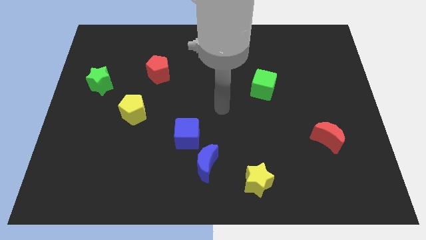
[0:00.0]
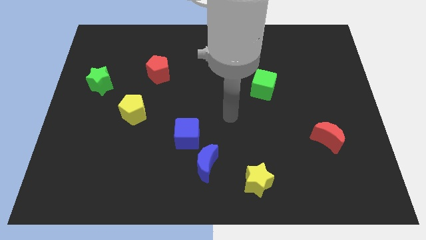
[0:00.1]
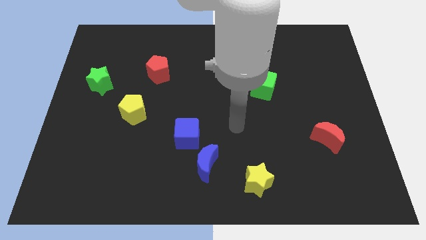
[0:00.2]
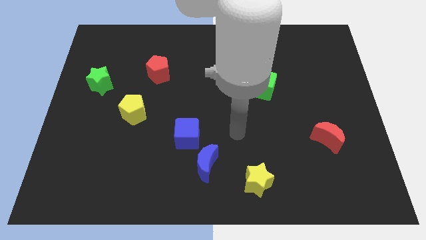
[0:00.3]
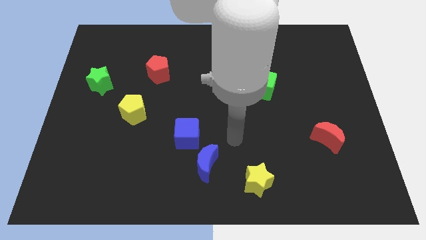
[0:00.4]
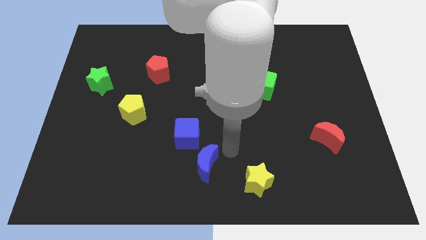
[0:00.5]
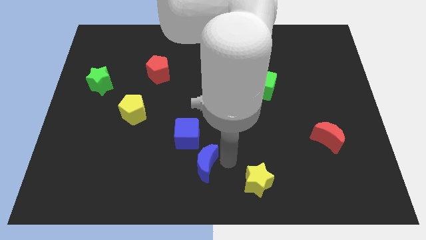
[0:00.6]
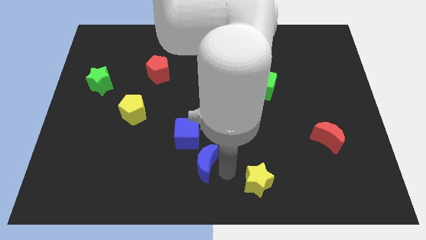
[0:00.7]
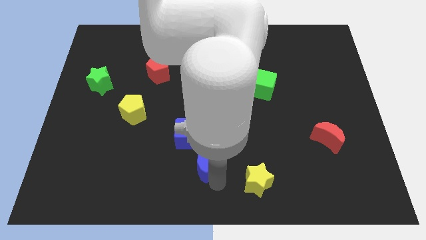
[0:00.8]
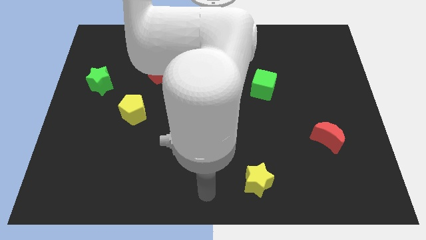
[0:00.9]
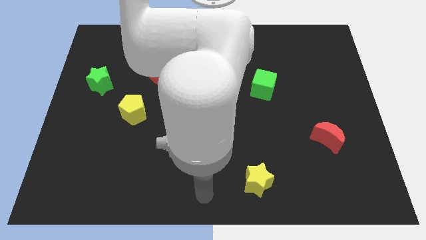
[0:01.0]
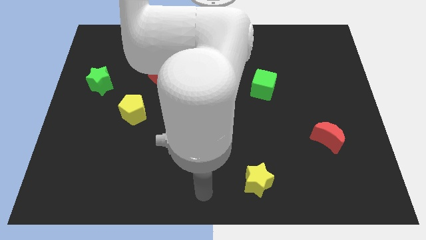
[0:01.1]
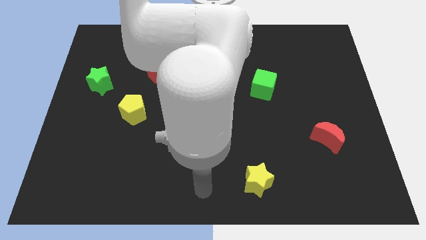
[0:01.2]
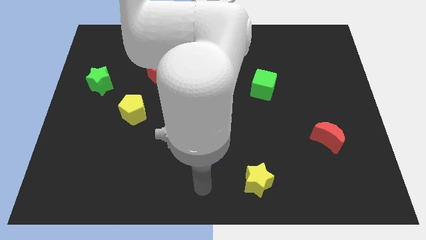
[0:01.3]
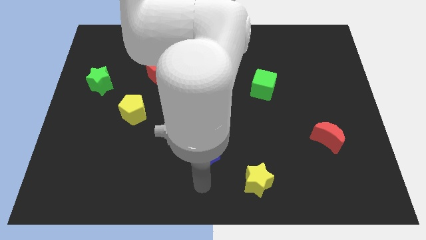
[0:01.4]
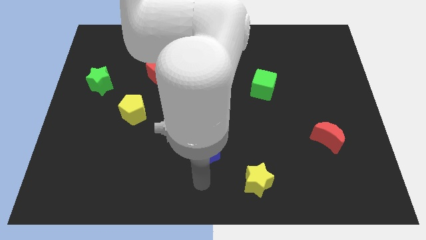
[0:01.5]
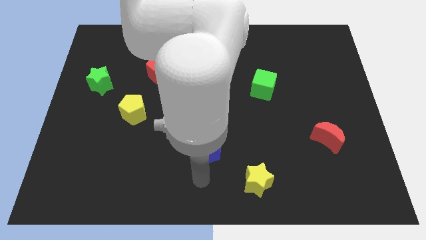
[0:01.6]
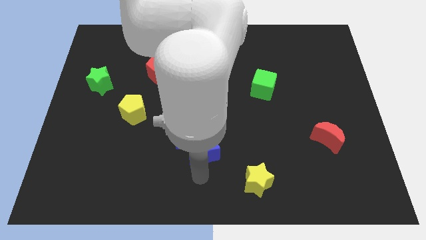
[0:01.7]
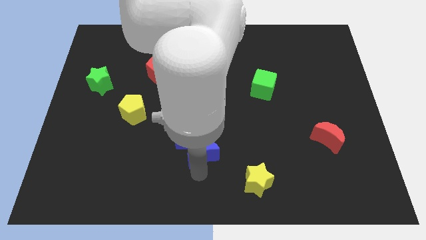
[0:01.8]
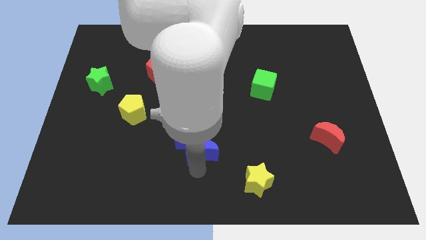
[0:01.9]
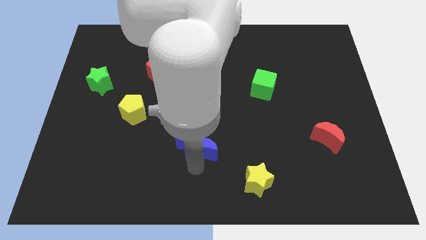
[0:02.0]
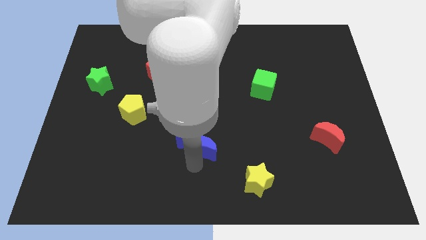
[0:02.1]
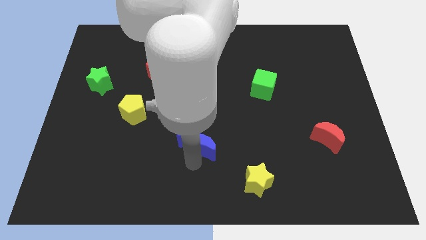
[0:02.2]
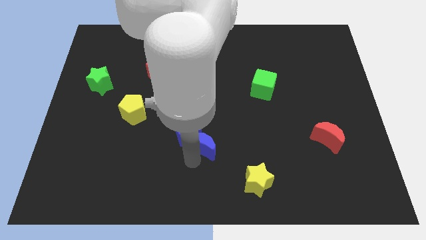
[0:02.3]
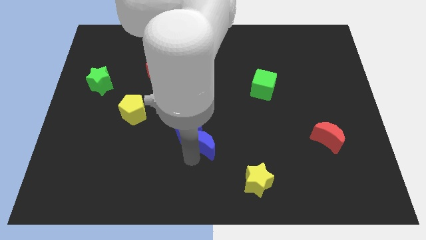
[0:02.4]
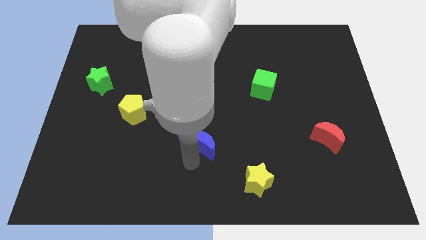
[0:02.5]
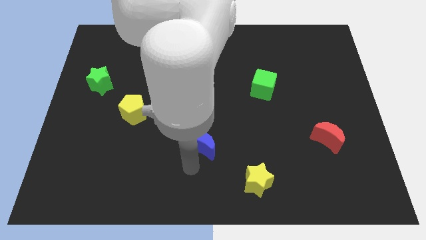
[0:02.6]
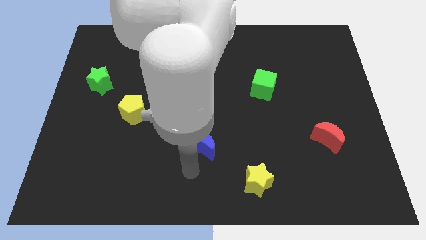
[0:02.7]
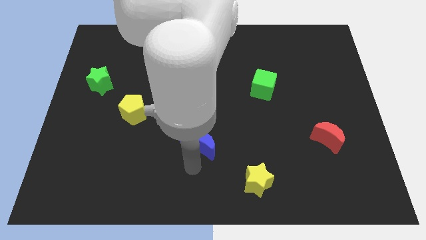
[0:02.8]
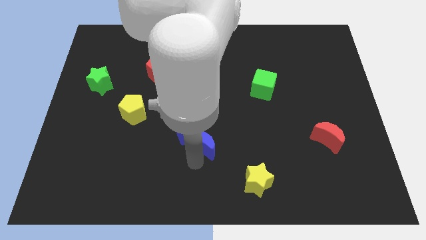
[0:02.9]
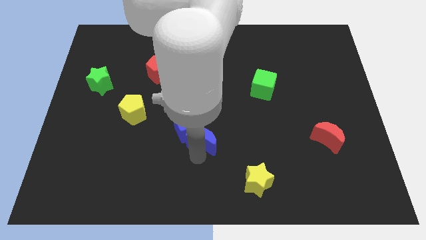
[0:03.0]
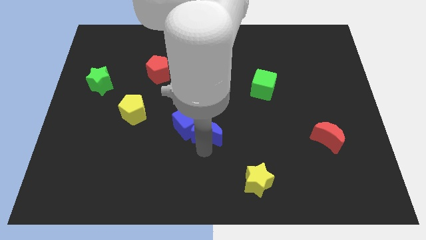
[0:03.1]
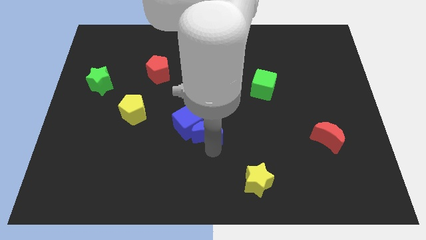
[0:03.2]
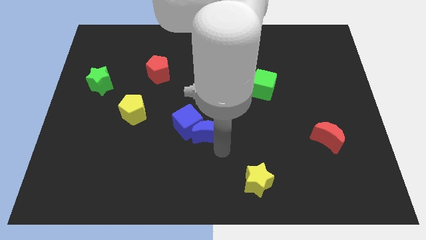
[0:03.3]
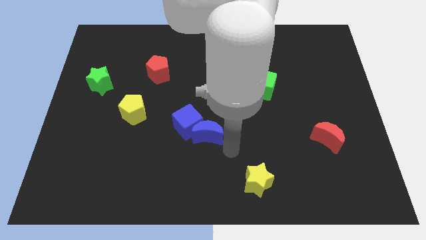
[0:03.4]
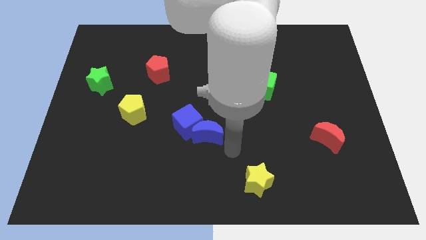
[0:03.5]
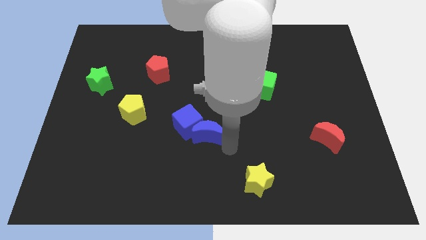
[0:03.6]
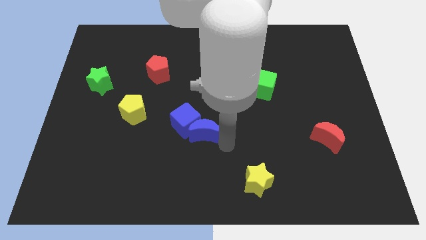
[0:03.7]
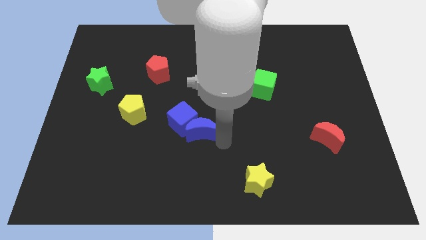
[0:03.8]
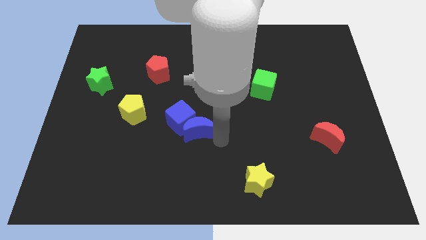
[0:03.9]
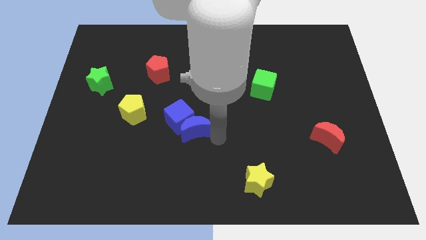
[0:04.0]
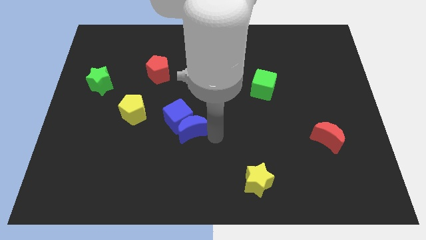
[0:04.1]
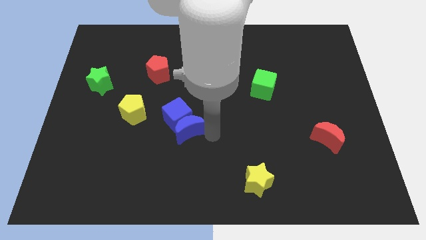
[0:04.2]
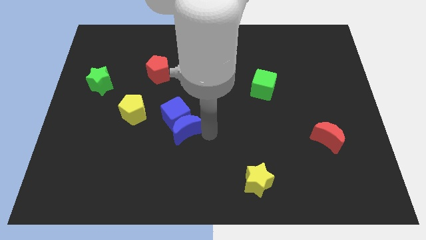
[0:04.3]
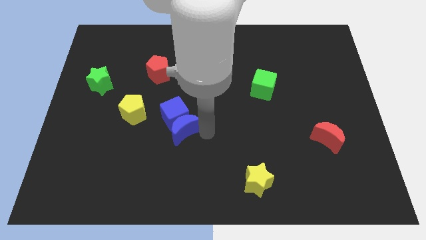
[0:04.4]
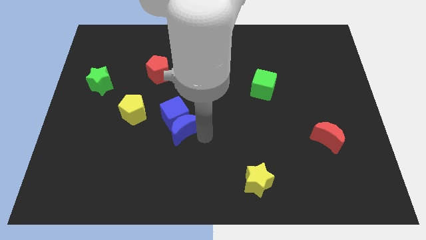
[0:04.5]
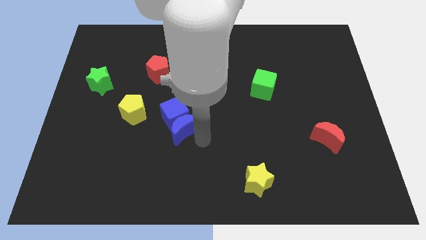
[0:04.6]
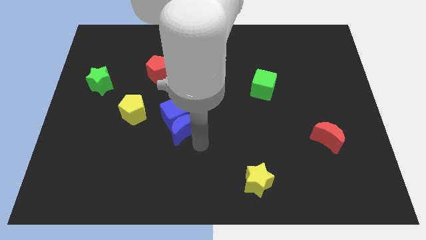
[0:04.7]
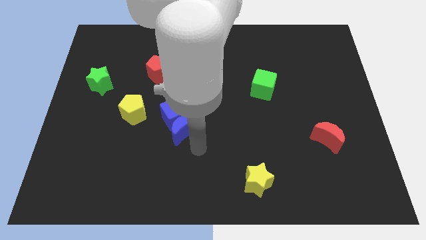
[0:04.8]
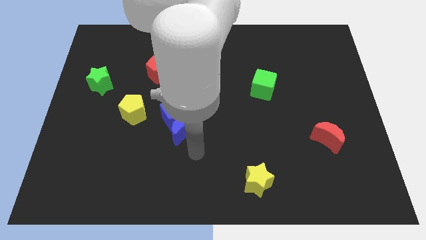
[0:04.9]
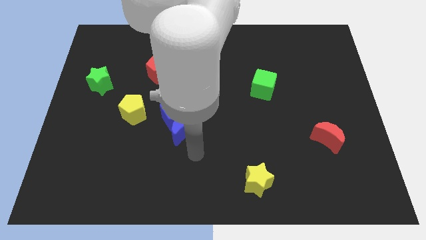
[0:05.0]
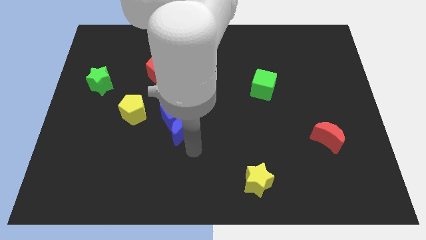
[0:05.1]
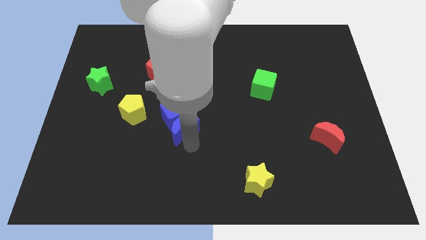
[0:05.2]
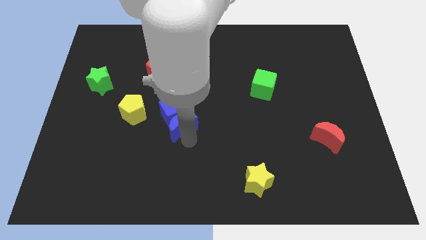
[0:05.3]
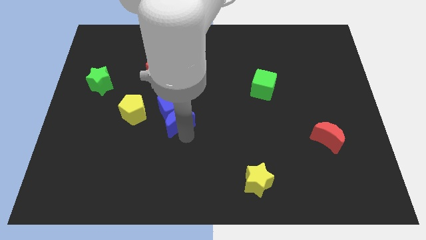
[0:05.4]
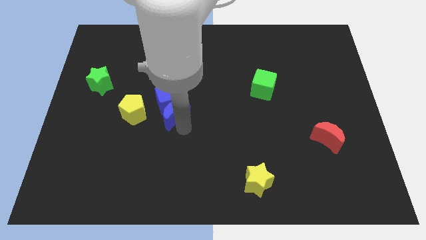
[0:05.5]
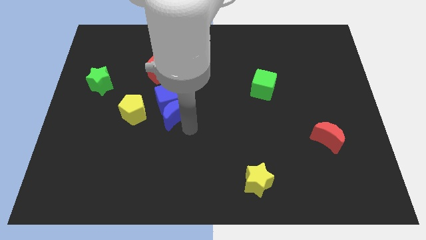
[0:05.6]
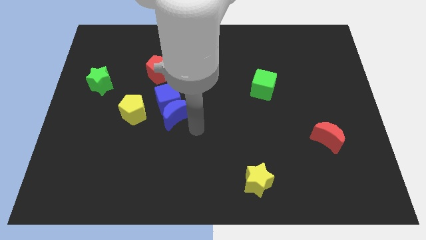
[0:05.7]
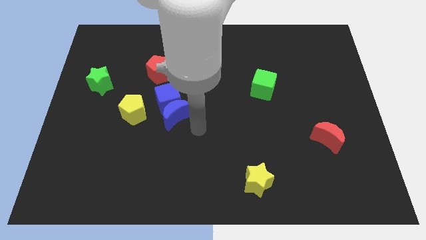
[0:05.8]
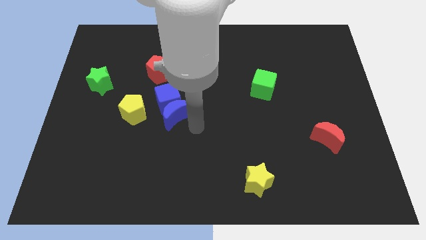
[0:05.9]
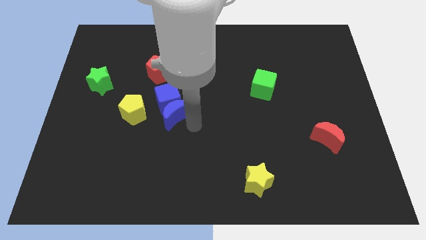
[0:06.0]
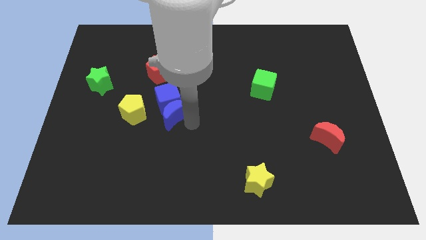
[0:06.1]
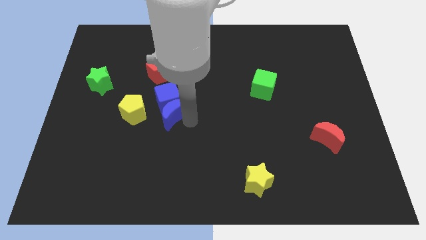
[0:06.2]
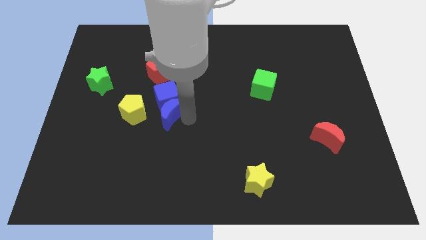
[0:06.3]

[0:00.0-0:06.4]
put the blue moon to the bottom of the red pentagon
